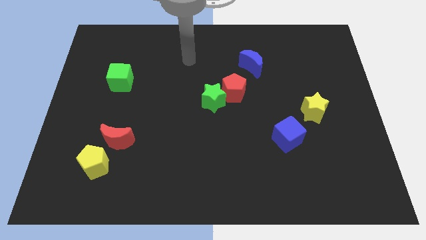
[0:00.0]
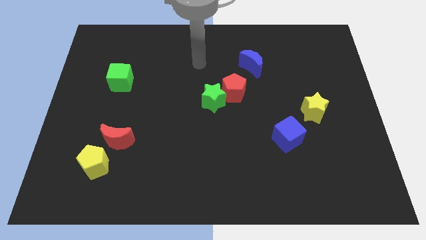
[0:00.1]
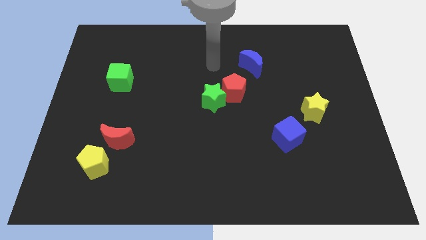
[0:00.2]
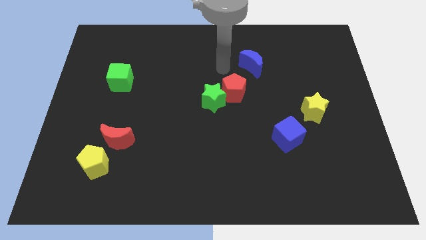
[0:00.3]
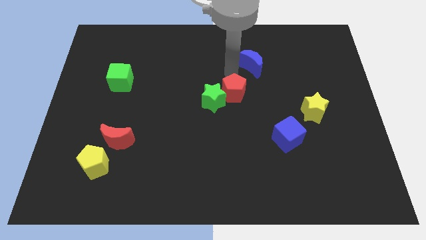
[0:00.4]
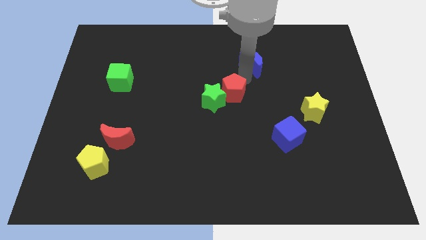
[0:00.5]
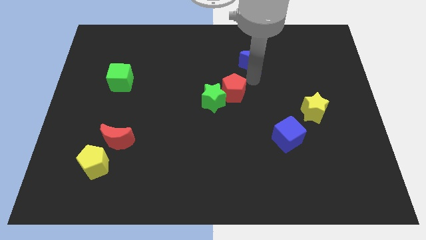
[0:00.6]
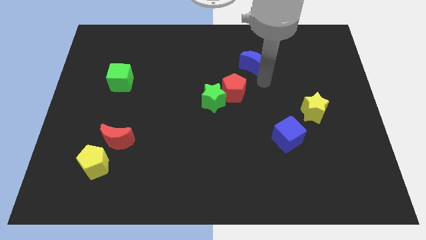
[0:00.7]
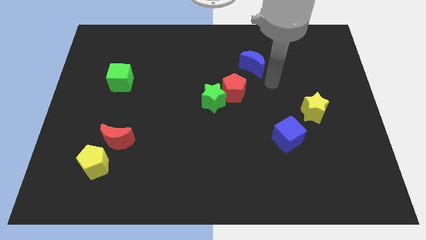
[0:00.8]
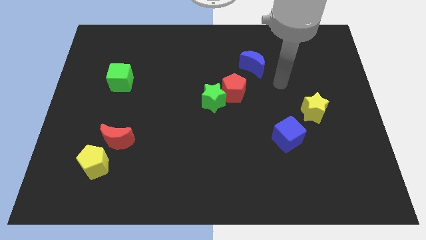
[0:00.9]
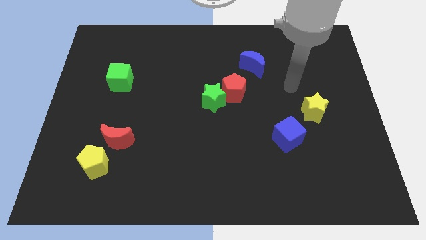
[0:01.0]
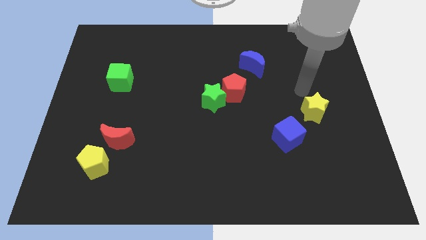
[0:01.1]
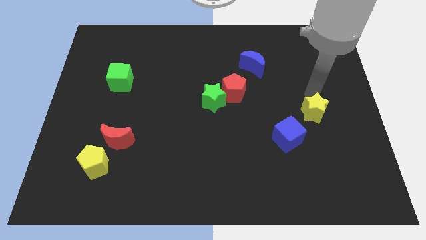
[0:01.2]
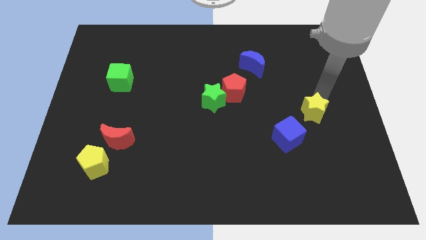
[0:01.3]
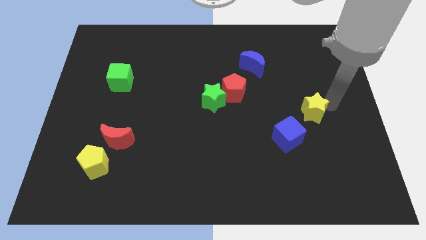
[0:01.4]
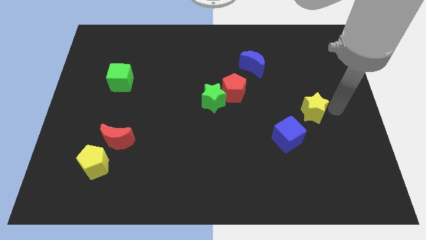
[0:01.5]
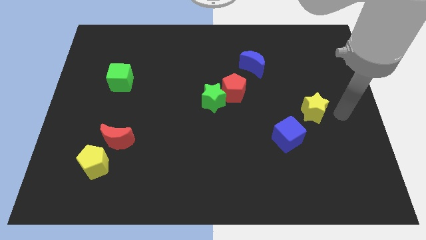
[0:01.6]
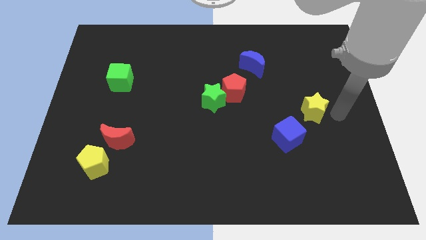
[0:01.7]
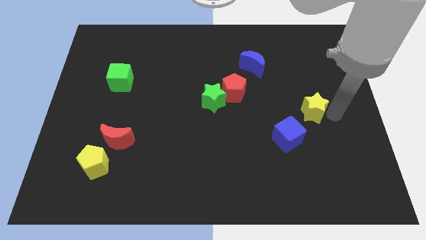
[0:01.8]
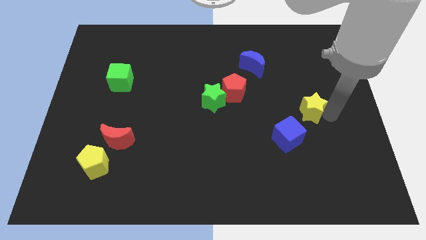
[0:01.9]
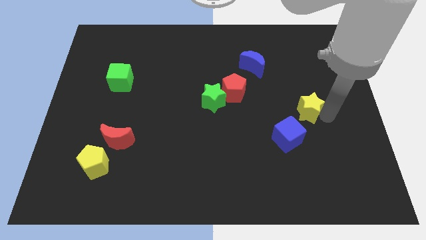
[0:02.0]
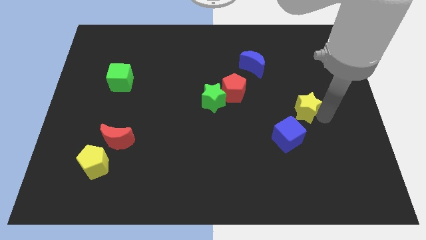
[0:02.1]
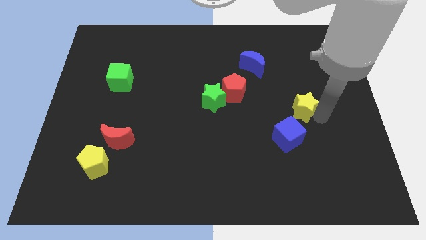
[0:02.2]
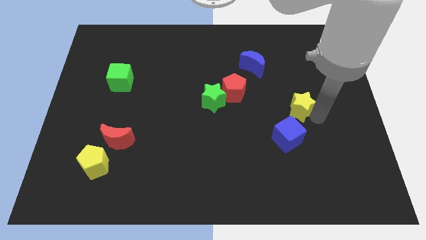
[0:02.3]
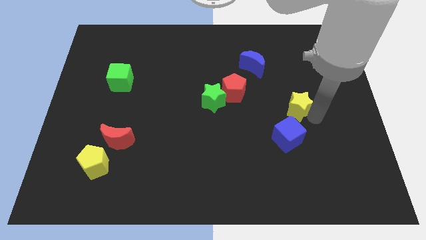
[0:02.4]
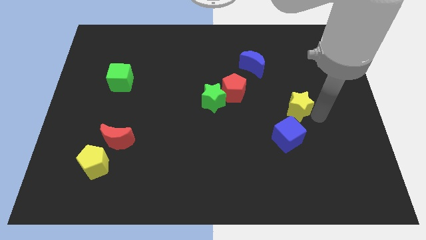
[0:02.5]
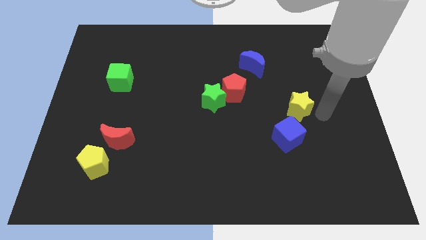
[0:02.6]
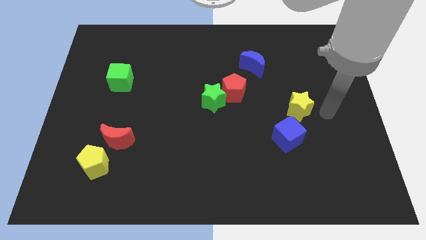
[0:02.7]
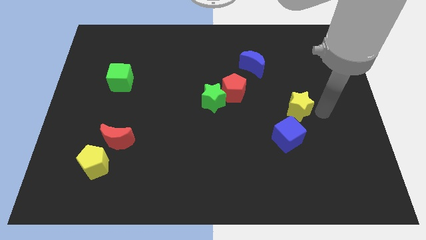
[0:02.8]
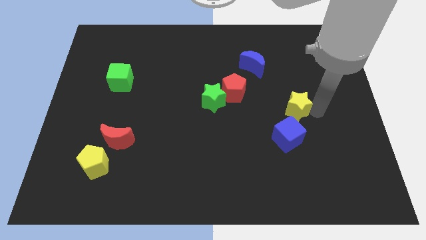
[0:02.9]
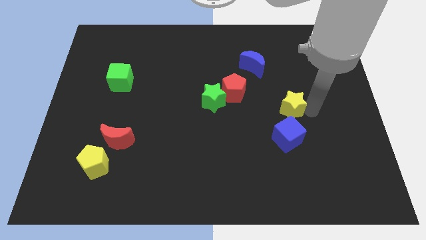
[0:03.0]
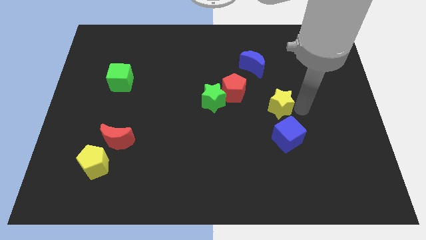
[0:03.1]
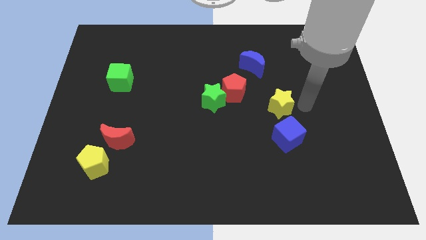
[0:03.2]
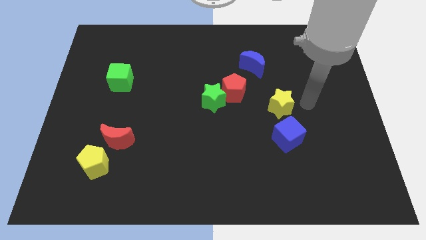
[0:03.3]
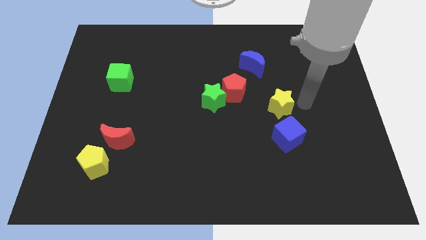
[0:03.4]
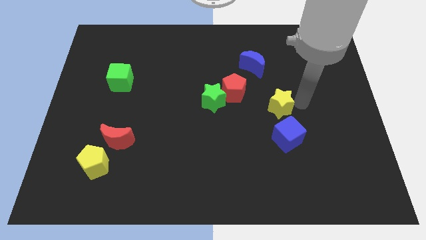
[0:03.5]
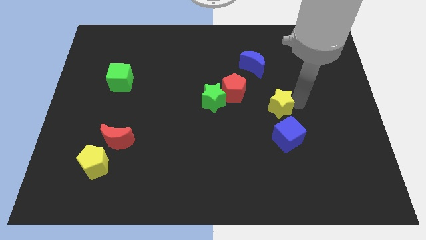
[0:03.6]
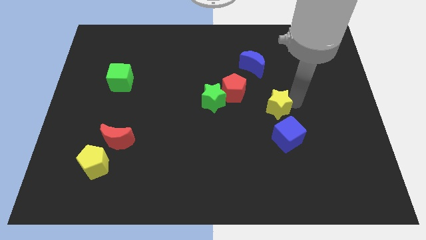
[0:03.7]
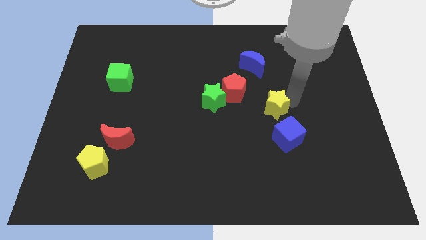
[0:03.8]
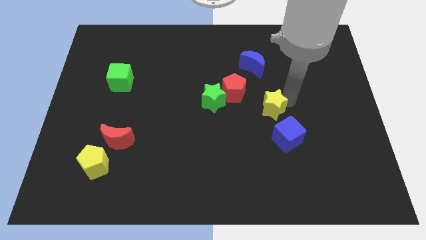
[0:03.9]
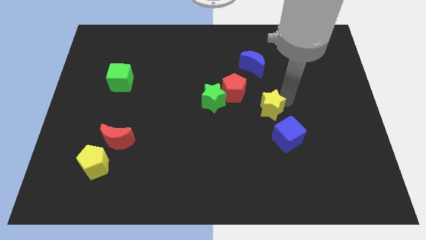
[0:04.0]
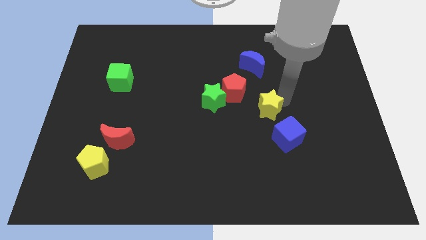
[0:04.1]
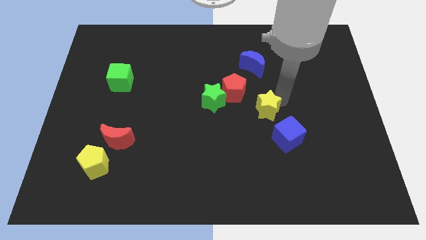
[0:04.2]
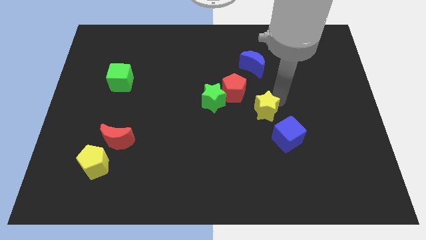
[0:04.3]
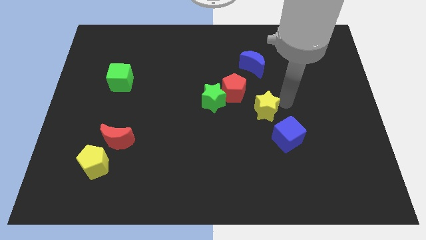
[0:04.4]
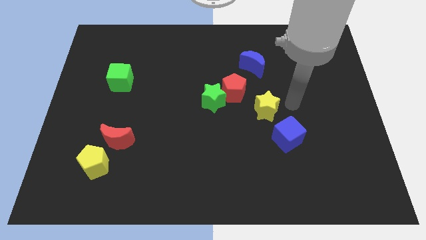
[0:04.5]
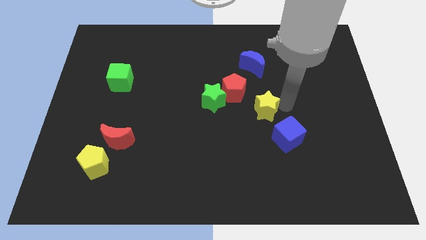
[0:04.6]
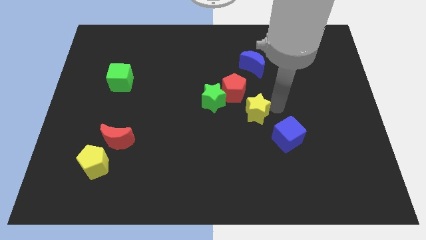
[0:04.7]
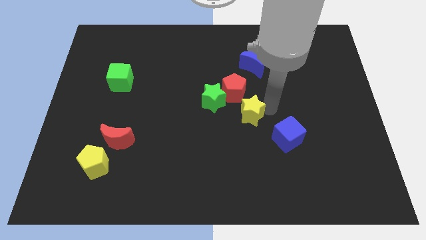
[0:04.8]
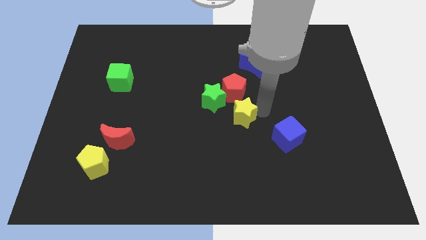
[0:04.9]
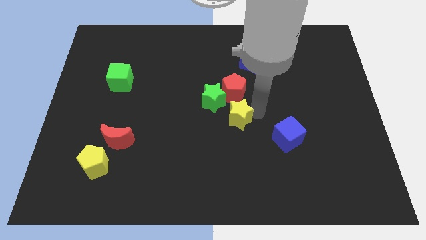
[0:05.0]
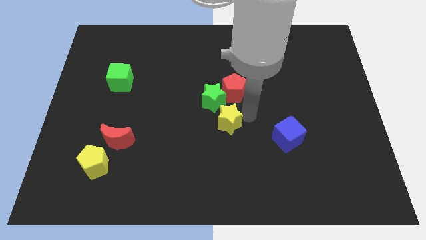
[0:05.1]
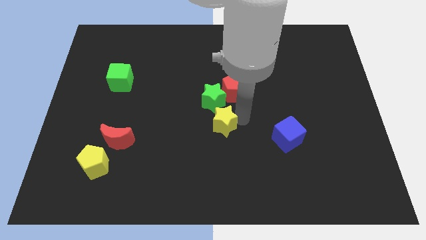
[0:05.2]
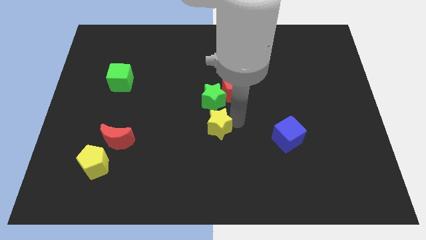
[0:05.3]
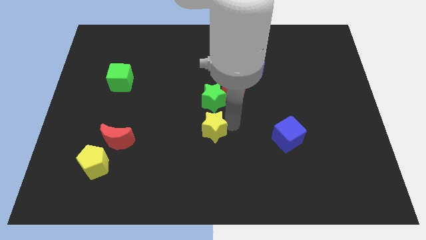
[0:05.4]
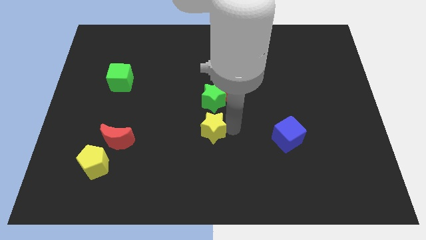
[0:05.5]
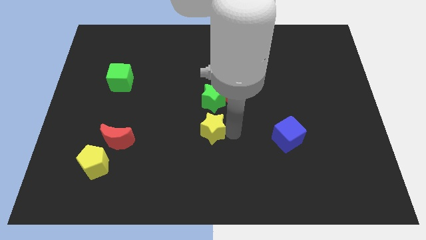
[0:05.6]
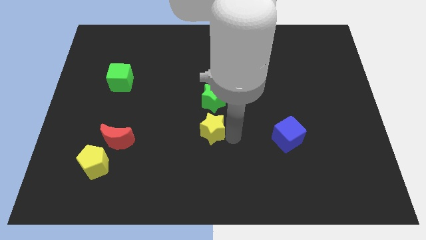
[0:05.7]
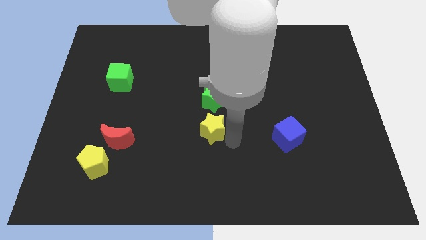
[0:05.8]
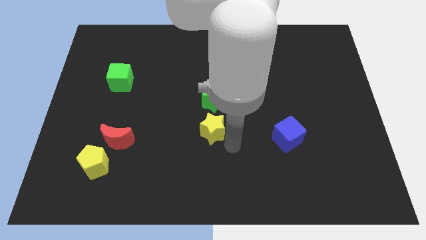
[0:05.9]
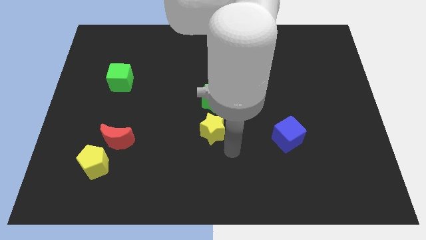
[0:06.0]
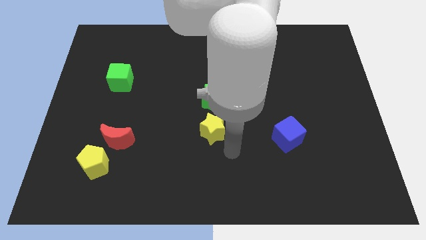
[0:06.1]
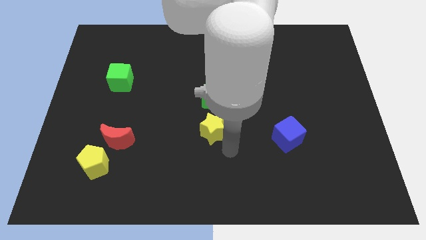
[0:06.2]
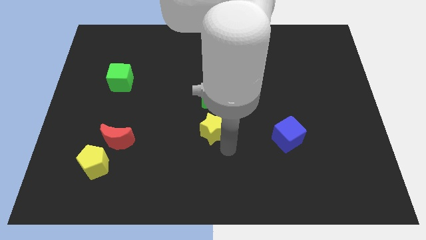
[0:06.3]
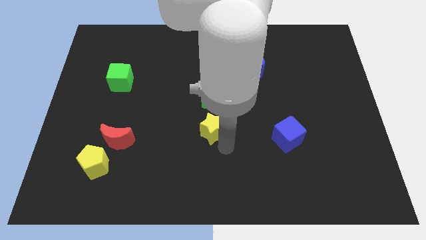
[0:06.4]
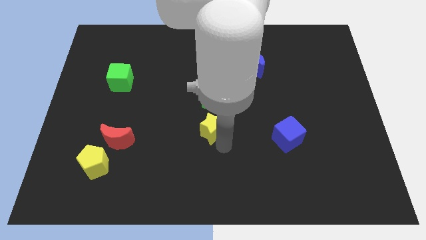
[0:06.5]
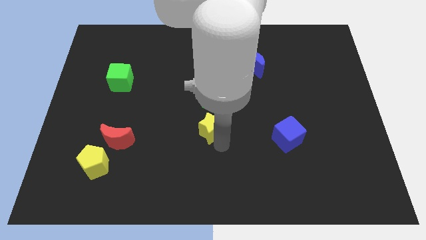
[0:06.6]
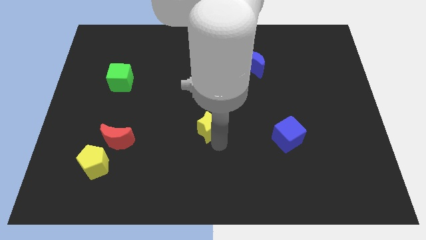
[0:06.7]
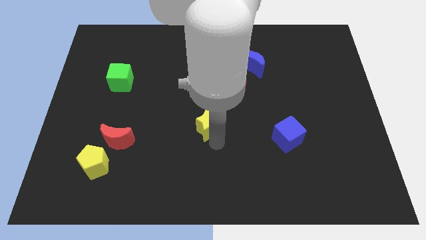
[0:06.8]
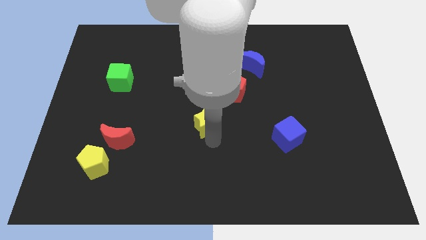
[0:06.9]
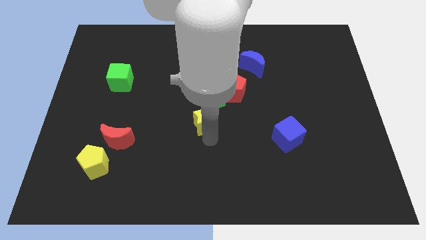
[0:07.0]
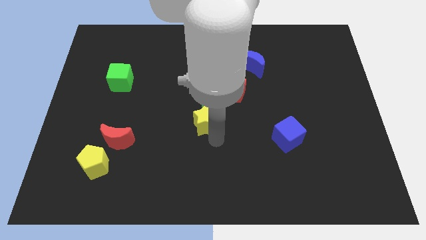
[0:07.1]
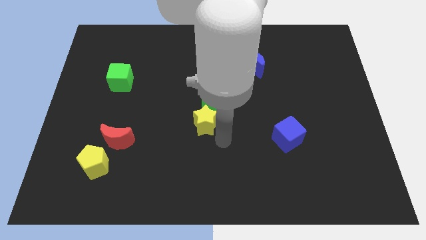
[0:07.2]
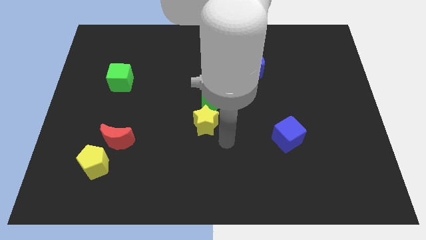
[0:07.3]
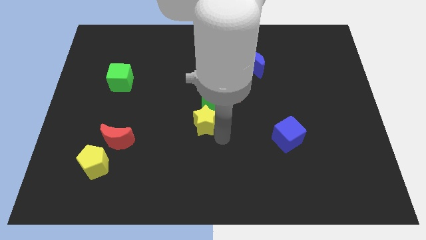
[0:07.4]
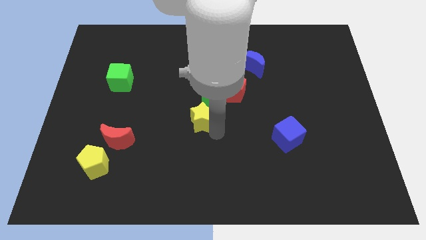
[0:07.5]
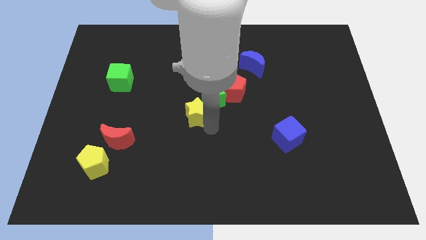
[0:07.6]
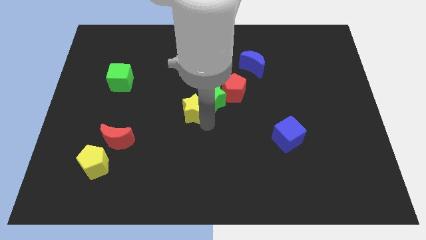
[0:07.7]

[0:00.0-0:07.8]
push the yellow star to the left side of the green star
